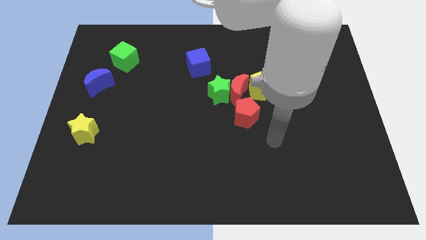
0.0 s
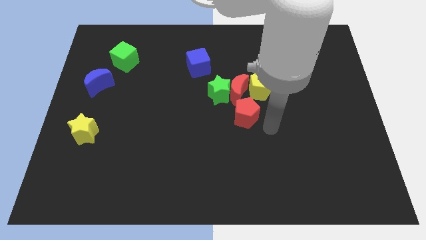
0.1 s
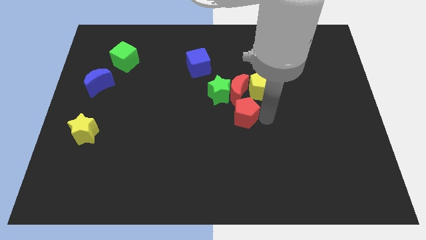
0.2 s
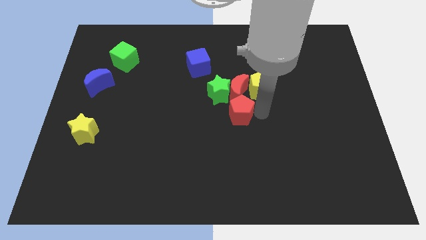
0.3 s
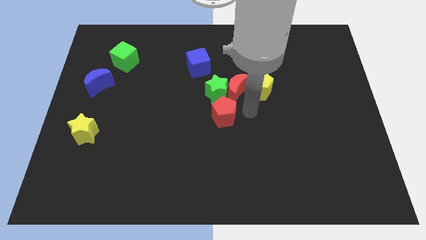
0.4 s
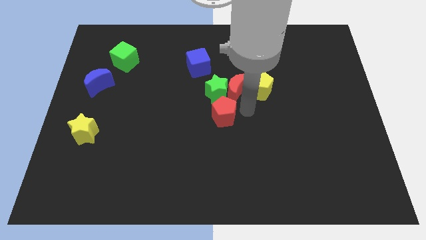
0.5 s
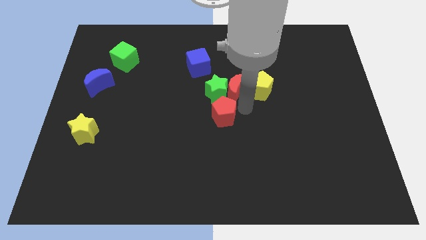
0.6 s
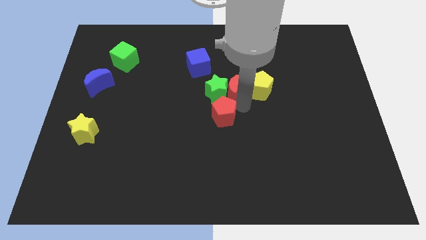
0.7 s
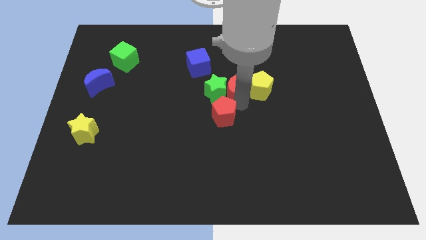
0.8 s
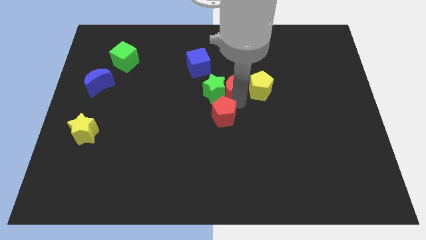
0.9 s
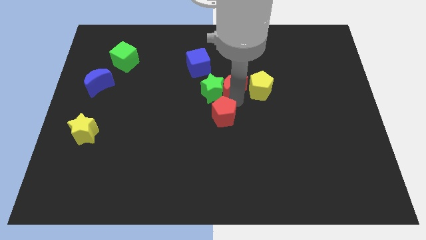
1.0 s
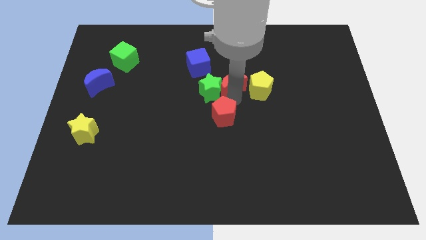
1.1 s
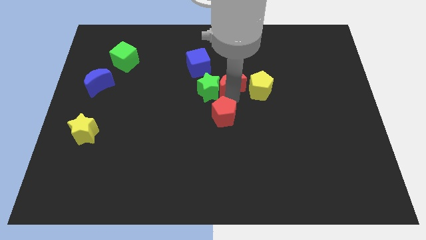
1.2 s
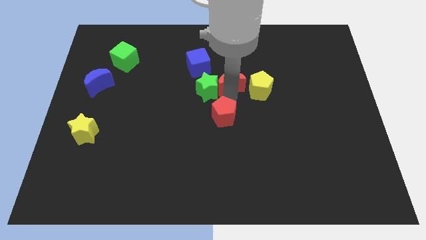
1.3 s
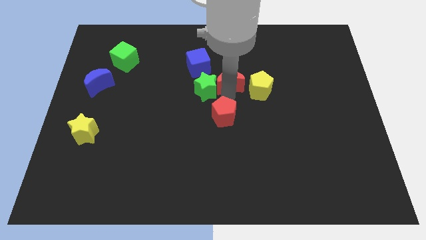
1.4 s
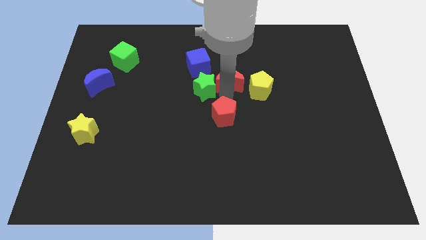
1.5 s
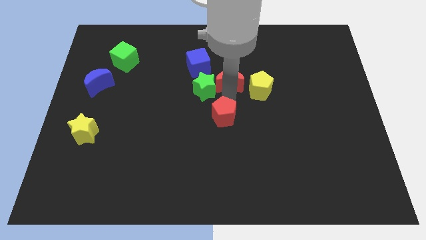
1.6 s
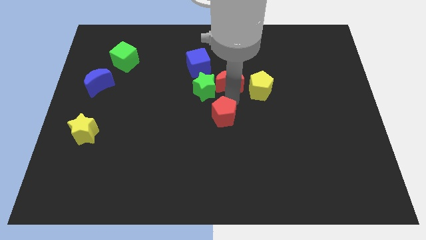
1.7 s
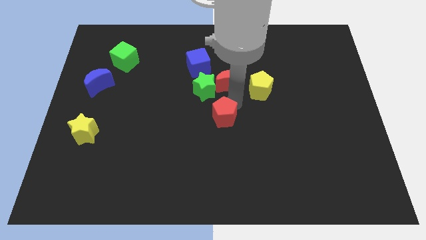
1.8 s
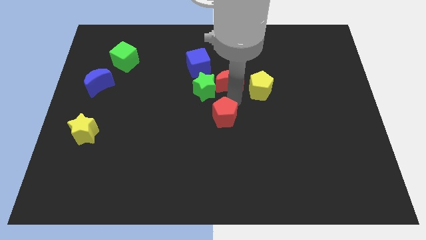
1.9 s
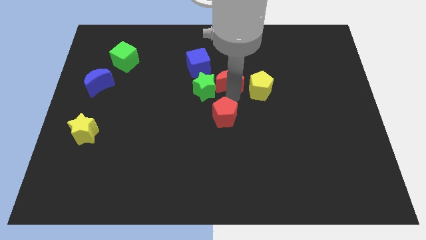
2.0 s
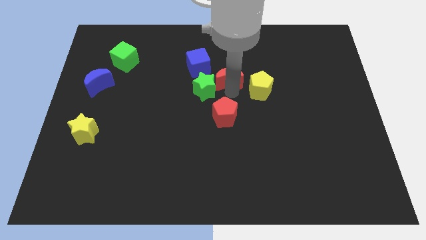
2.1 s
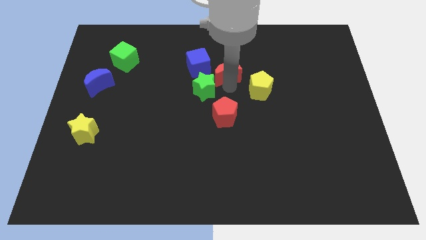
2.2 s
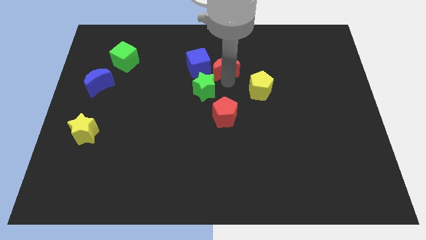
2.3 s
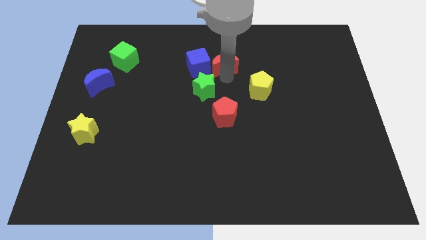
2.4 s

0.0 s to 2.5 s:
move the red moon away from the group

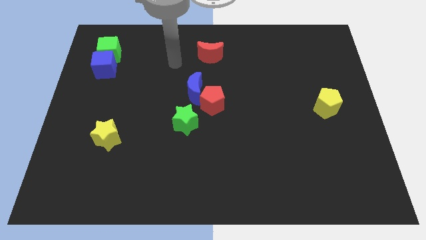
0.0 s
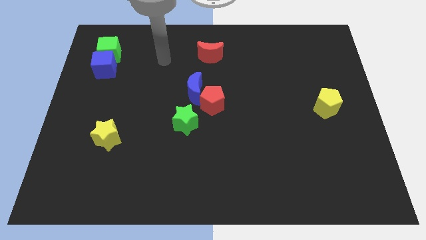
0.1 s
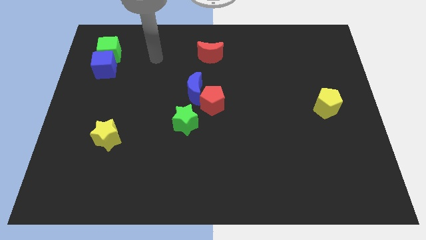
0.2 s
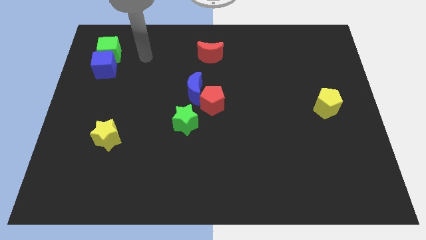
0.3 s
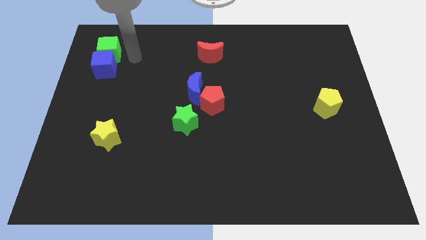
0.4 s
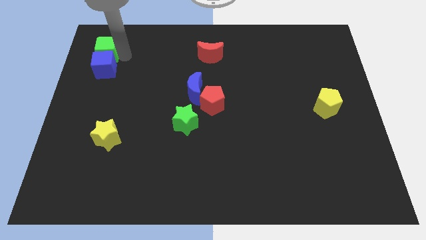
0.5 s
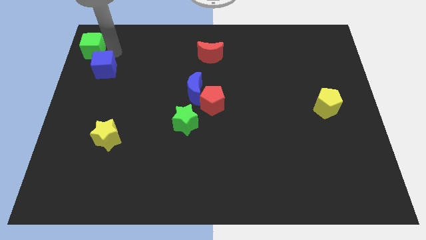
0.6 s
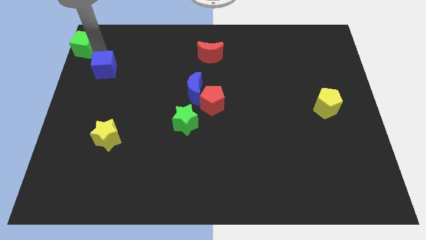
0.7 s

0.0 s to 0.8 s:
move the blue cube away from the green cube

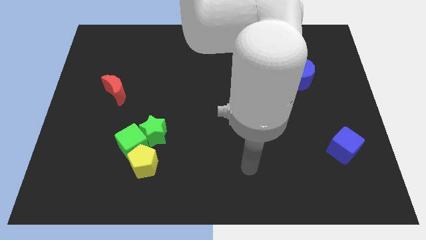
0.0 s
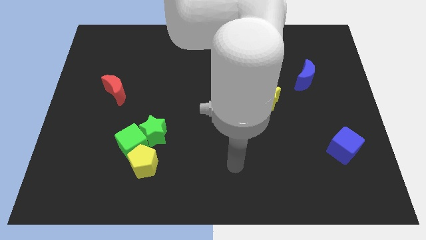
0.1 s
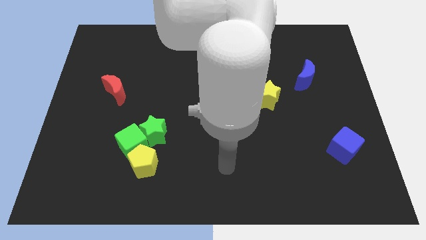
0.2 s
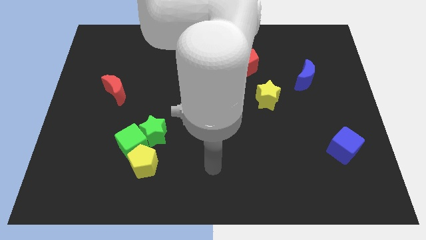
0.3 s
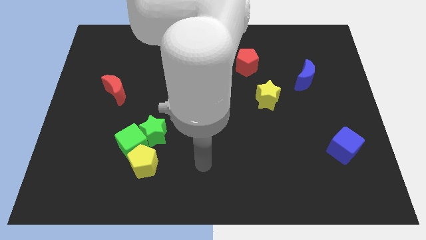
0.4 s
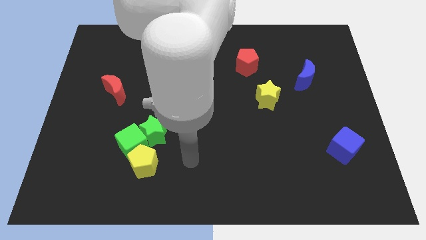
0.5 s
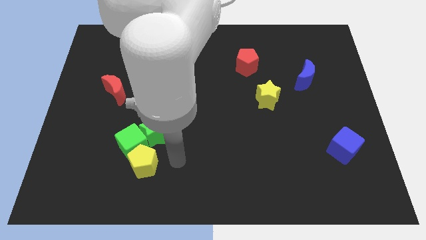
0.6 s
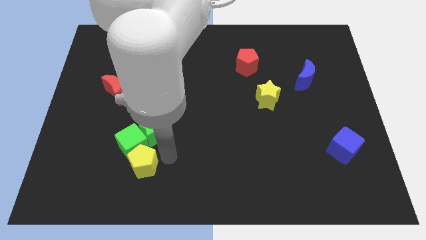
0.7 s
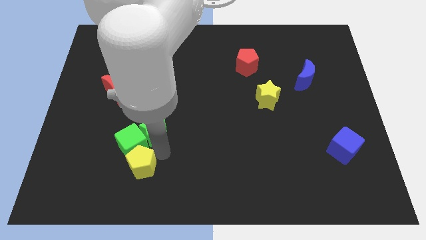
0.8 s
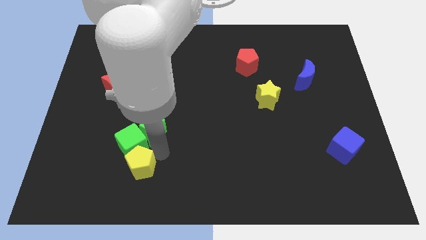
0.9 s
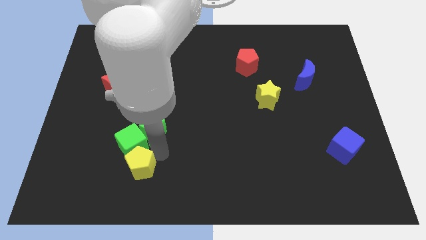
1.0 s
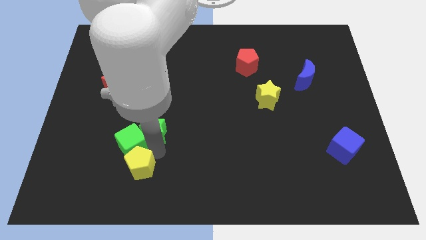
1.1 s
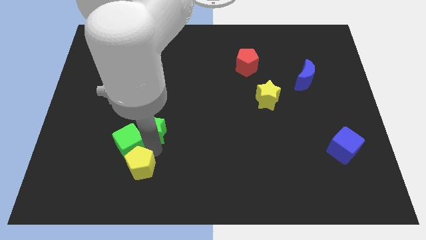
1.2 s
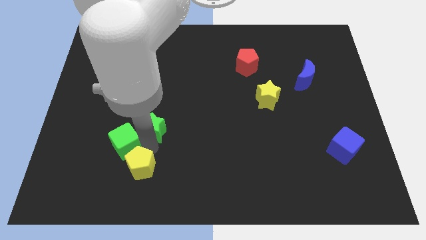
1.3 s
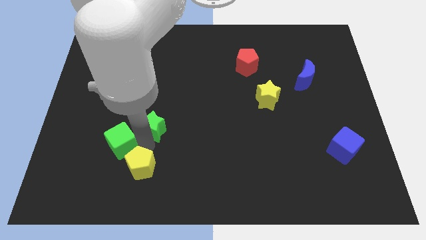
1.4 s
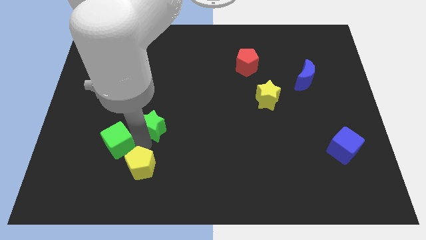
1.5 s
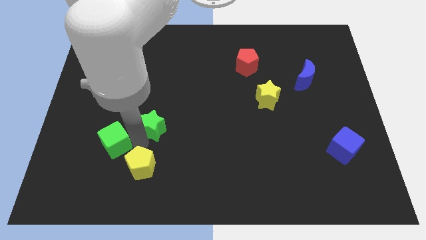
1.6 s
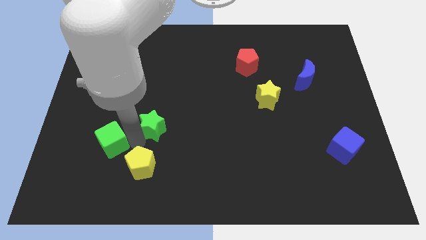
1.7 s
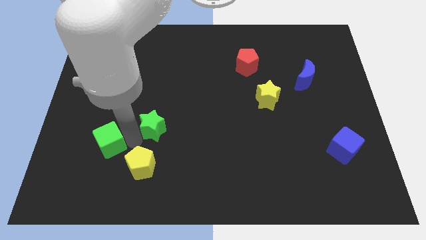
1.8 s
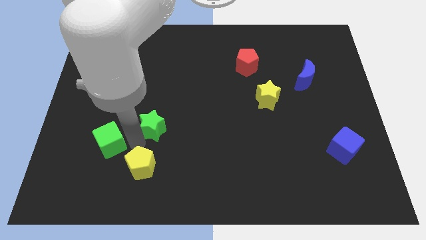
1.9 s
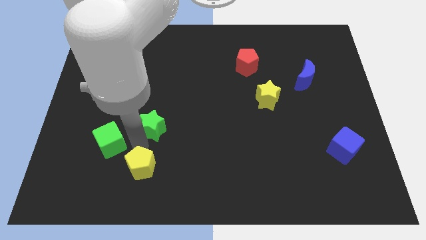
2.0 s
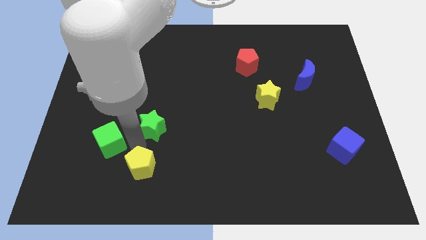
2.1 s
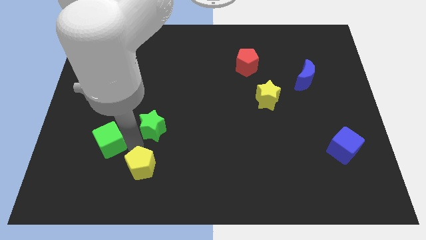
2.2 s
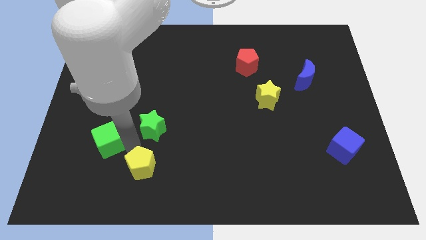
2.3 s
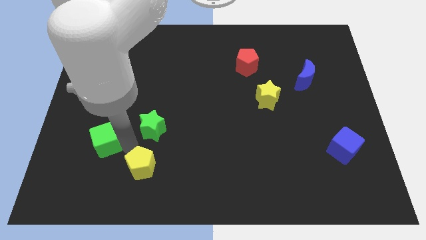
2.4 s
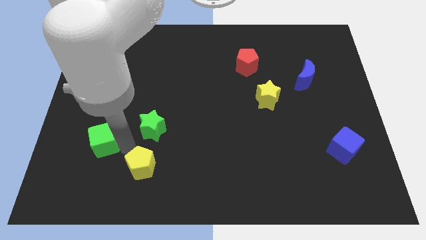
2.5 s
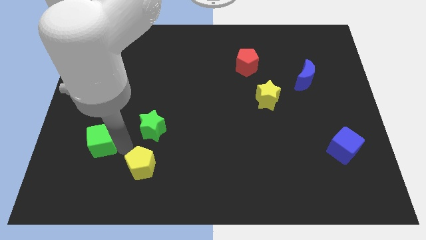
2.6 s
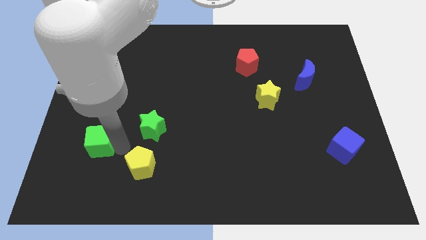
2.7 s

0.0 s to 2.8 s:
pull the green cube apart from the green star and yellow pentagon

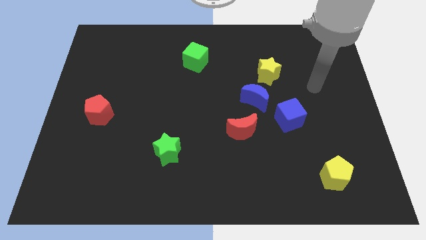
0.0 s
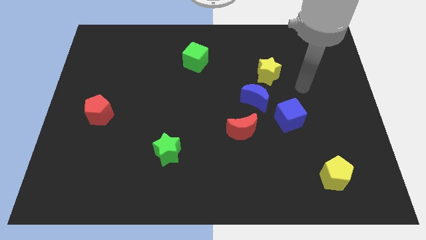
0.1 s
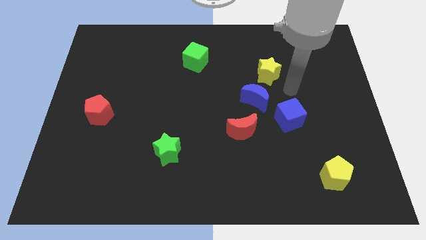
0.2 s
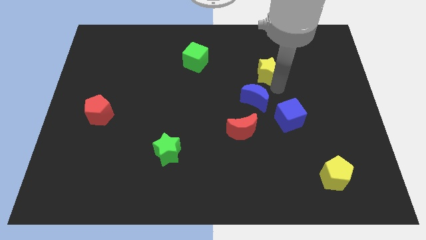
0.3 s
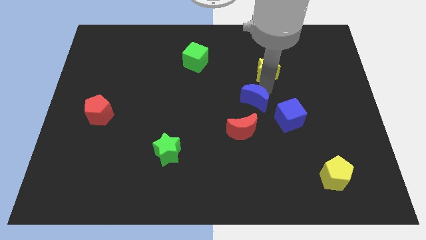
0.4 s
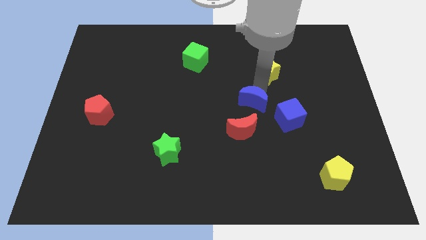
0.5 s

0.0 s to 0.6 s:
pull the yellow star apart from the blue moon

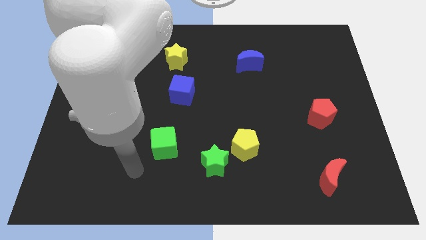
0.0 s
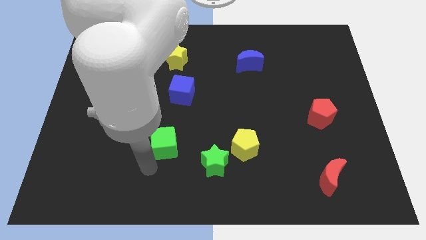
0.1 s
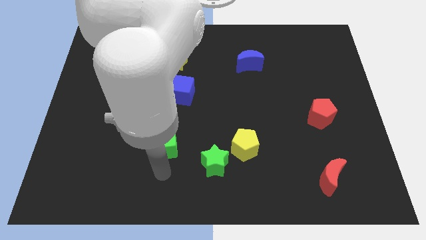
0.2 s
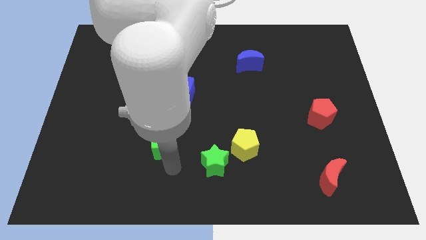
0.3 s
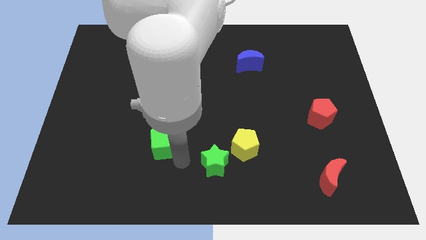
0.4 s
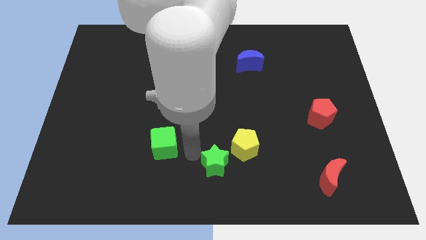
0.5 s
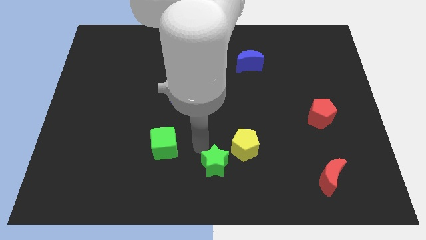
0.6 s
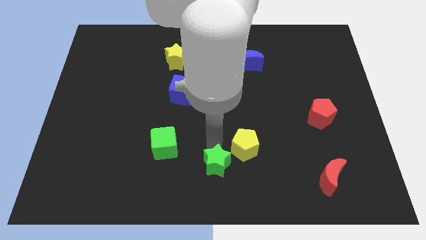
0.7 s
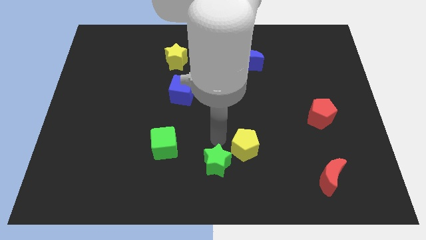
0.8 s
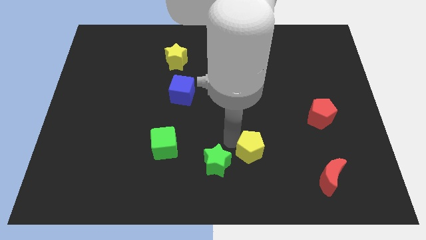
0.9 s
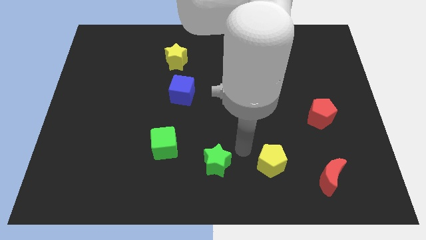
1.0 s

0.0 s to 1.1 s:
move the green star away from the yellow pentagon

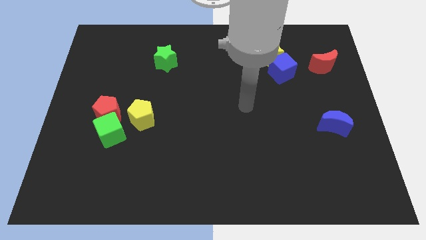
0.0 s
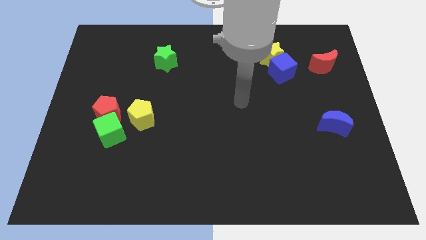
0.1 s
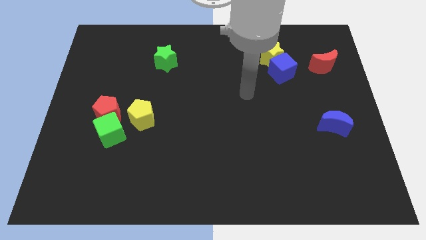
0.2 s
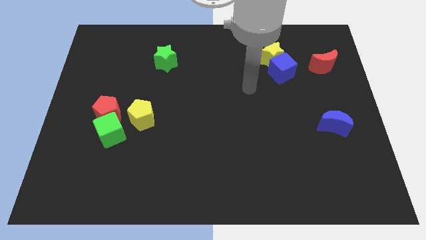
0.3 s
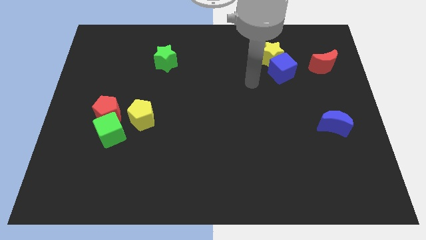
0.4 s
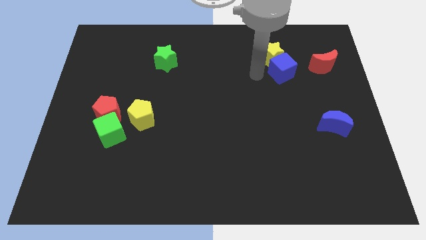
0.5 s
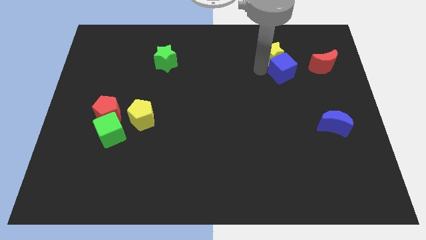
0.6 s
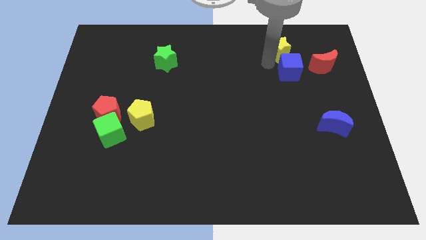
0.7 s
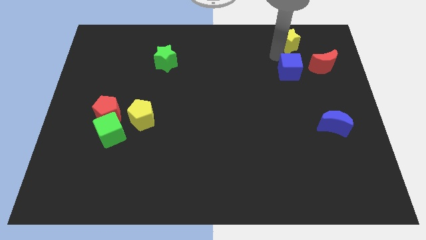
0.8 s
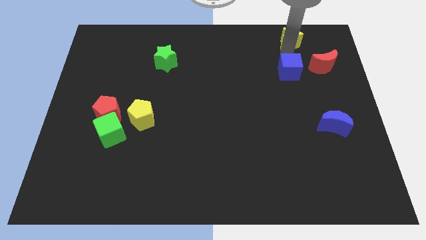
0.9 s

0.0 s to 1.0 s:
move the blue cube away from the yellow star

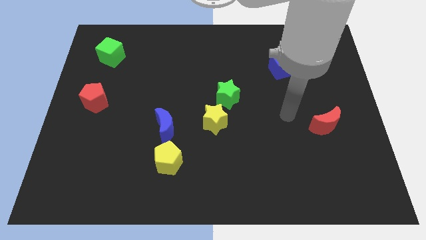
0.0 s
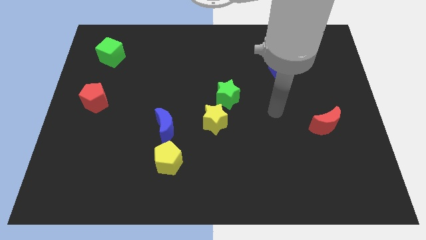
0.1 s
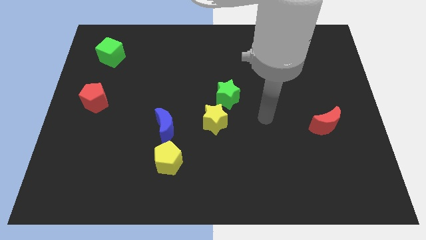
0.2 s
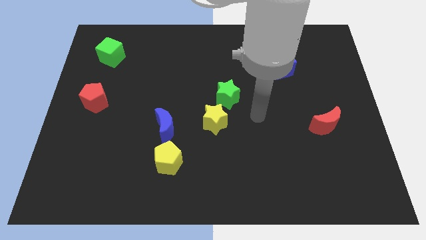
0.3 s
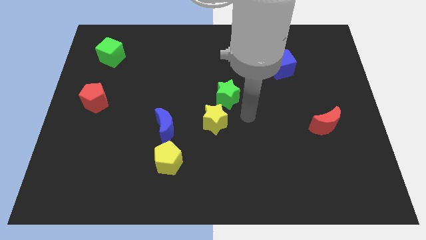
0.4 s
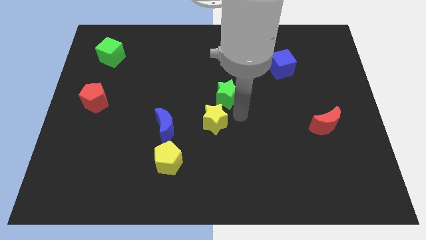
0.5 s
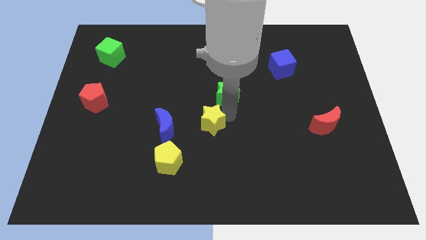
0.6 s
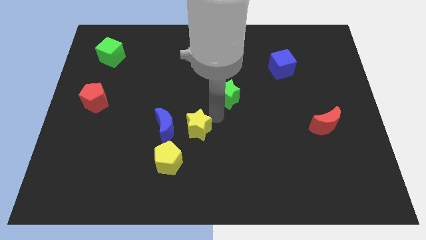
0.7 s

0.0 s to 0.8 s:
separate the green star from the yellow star
